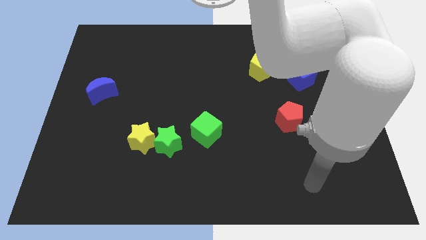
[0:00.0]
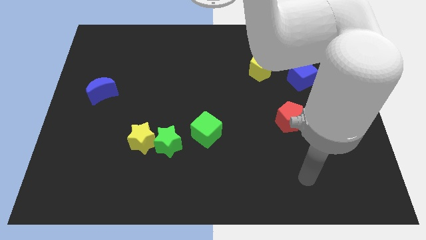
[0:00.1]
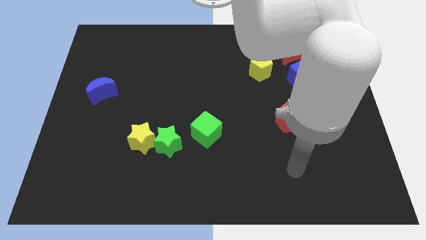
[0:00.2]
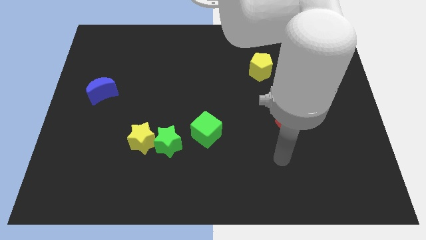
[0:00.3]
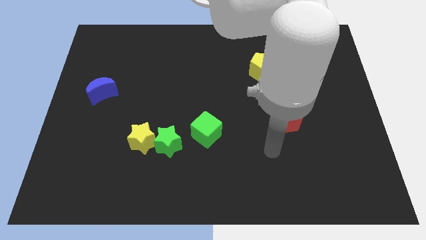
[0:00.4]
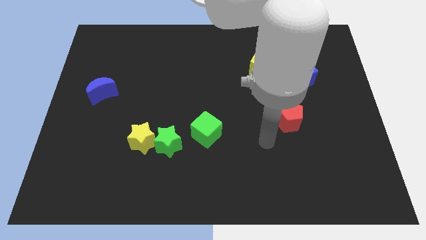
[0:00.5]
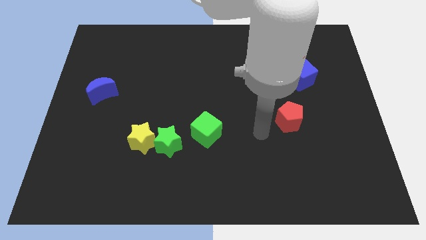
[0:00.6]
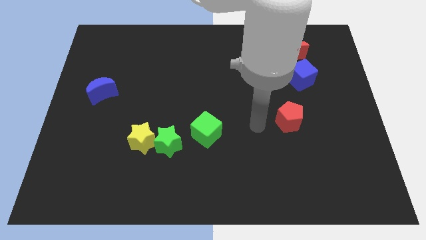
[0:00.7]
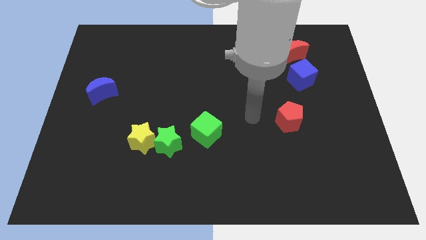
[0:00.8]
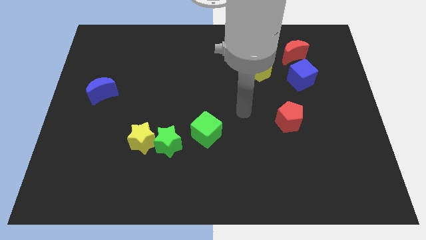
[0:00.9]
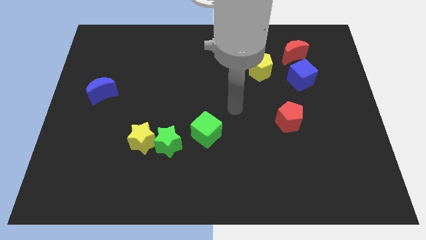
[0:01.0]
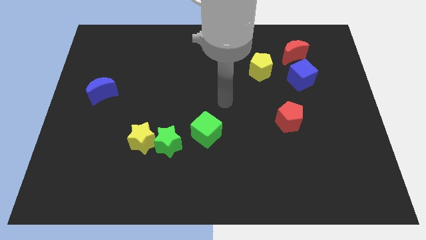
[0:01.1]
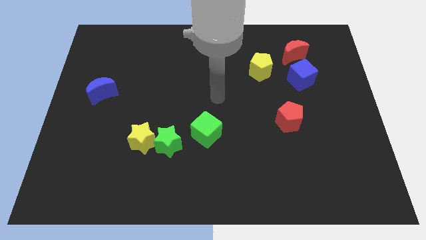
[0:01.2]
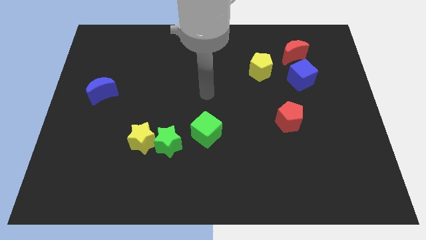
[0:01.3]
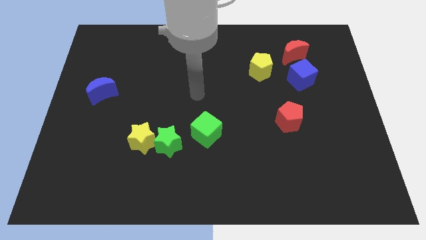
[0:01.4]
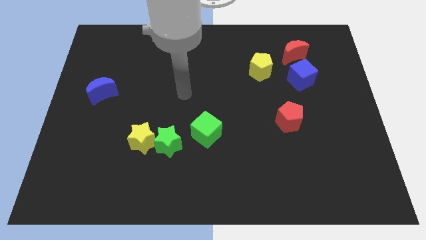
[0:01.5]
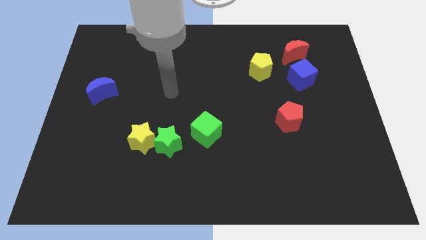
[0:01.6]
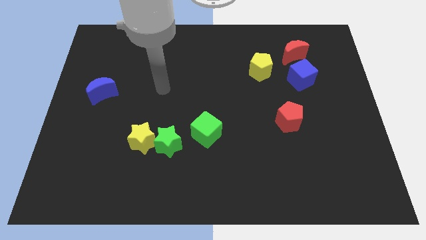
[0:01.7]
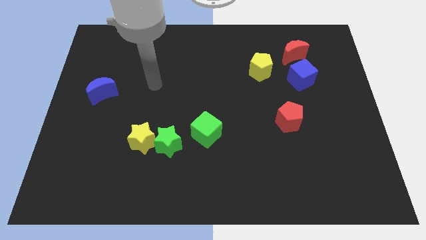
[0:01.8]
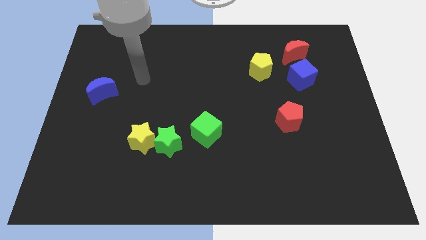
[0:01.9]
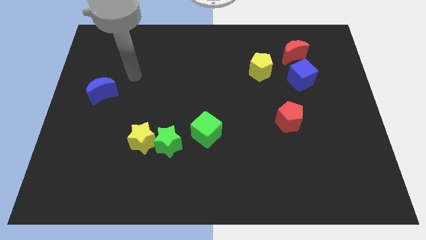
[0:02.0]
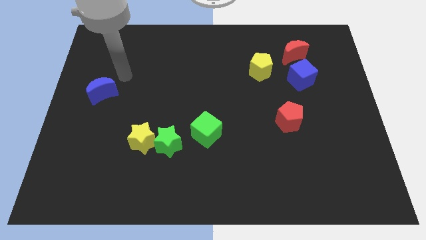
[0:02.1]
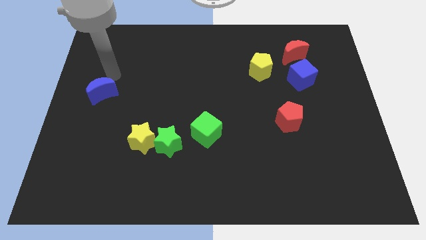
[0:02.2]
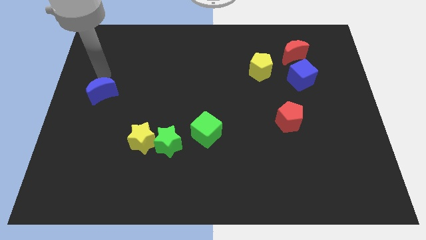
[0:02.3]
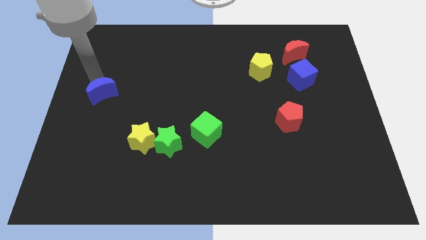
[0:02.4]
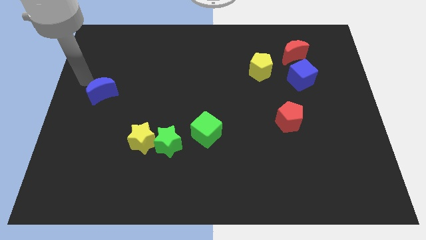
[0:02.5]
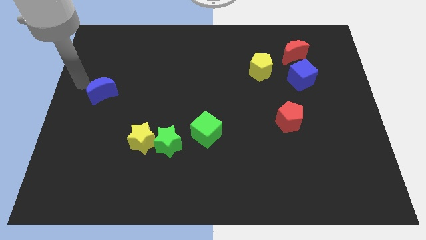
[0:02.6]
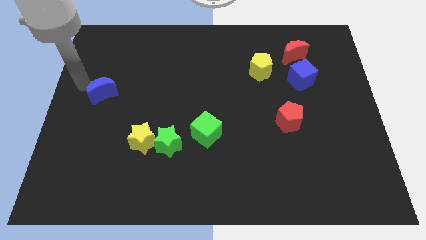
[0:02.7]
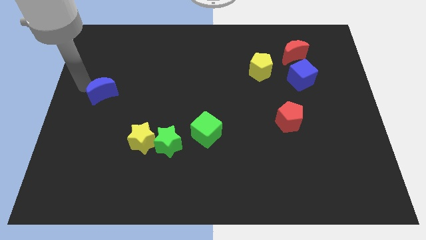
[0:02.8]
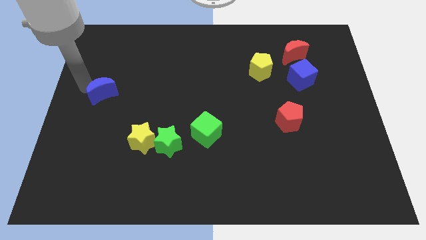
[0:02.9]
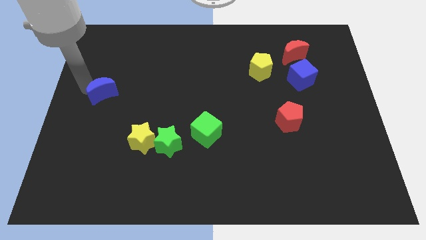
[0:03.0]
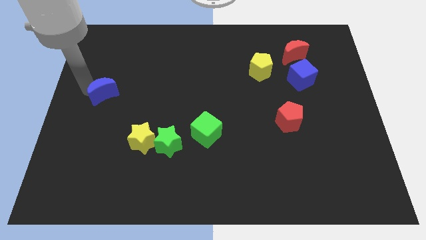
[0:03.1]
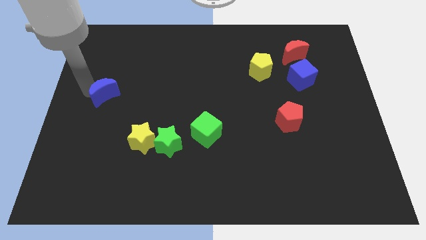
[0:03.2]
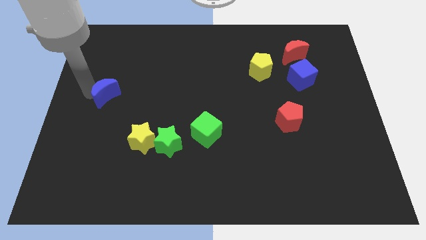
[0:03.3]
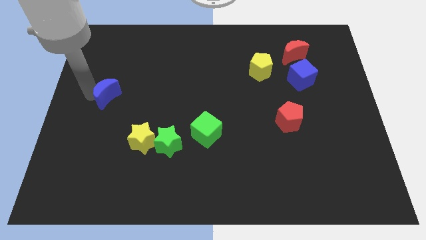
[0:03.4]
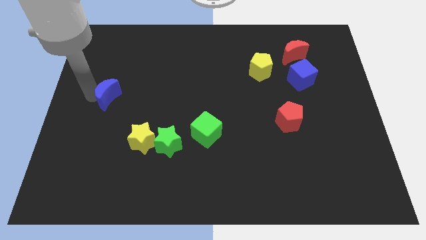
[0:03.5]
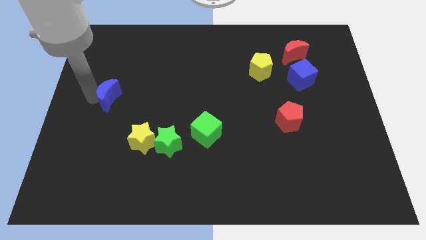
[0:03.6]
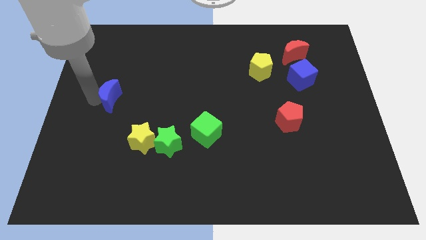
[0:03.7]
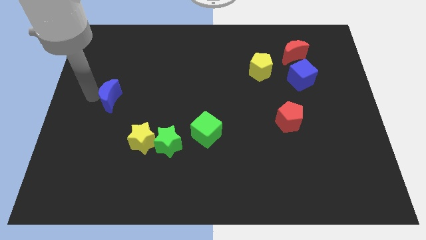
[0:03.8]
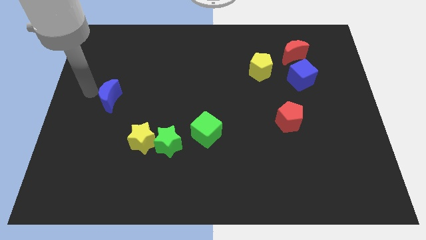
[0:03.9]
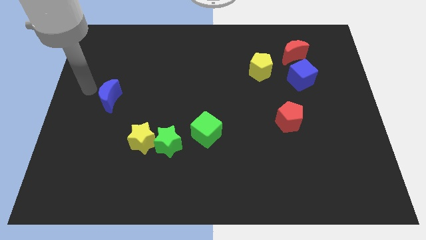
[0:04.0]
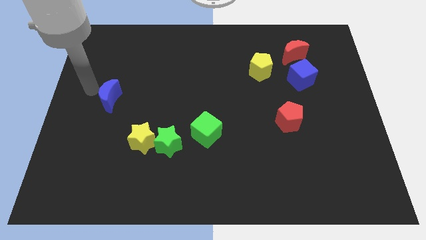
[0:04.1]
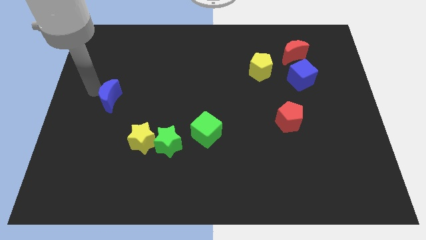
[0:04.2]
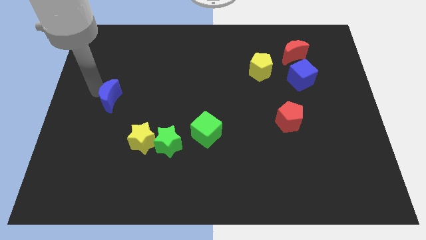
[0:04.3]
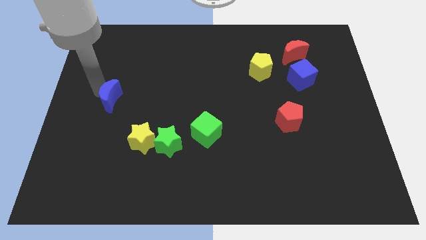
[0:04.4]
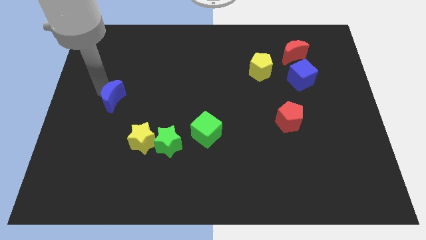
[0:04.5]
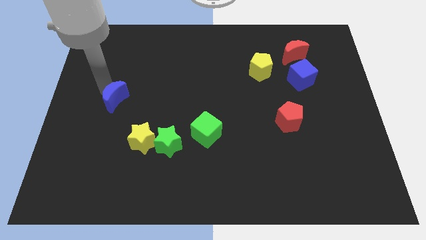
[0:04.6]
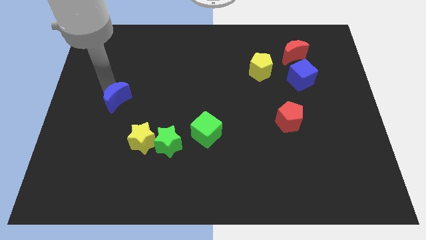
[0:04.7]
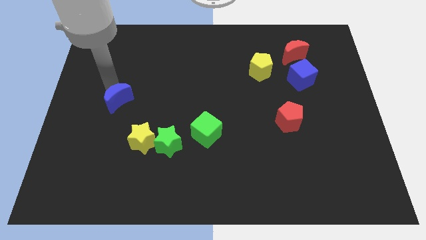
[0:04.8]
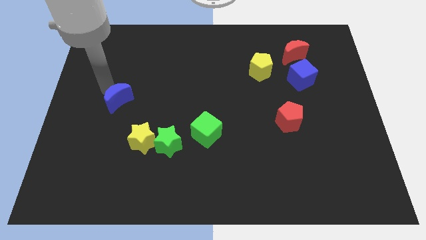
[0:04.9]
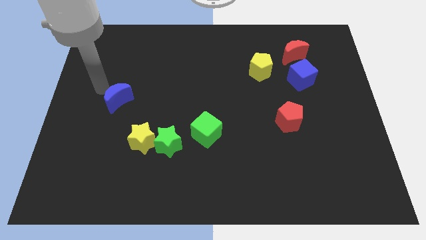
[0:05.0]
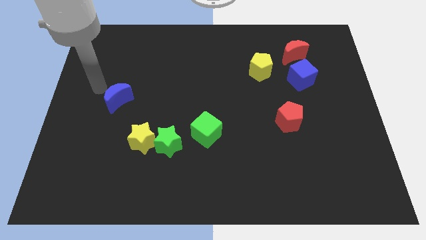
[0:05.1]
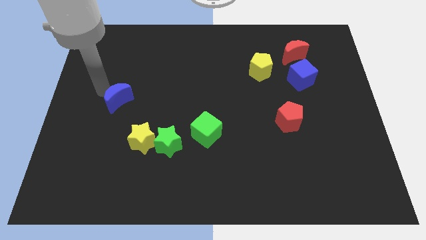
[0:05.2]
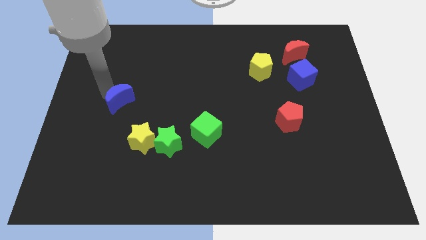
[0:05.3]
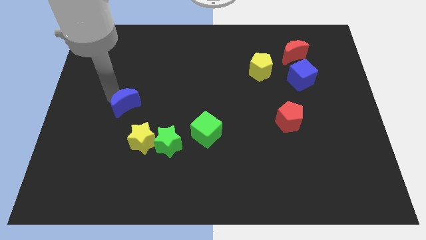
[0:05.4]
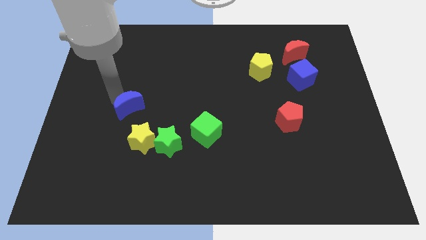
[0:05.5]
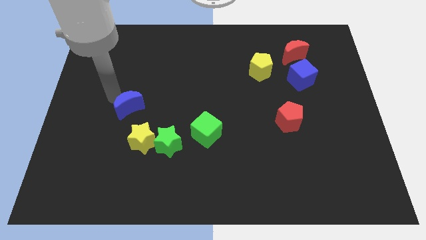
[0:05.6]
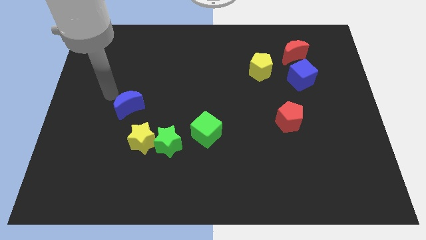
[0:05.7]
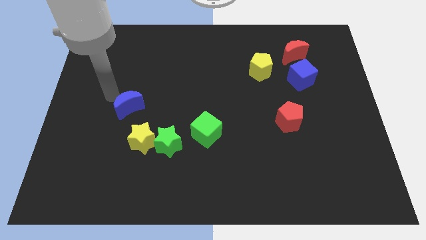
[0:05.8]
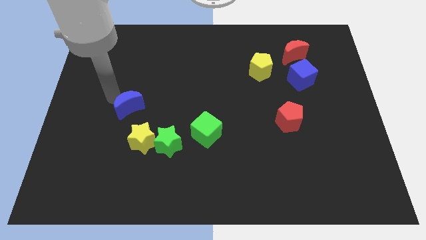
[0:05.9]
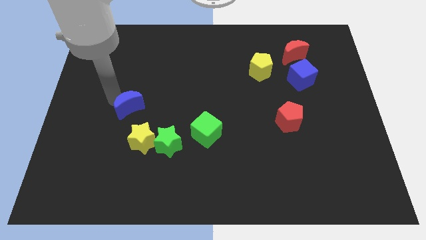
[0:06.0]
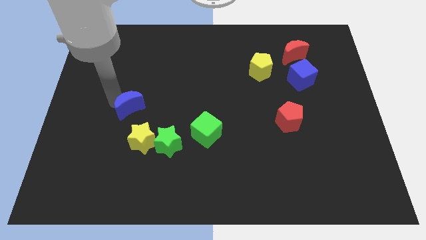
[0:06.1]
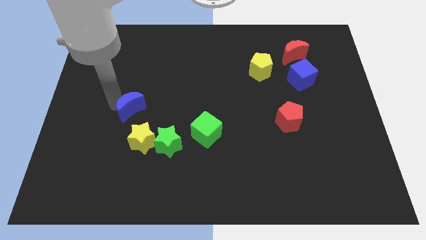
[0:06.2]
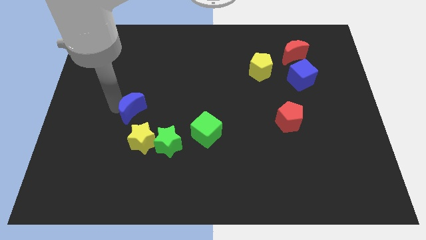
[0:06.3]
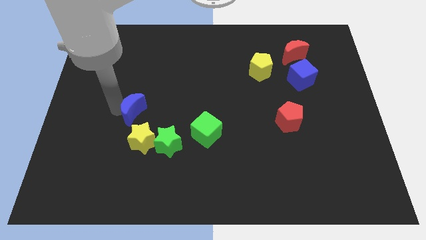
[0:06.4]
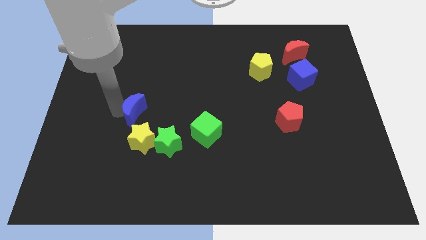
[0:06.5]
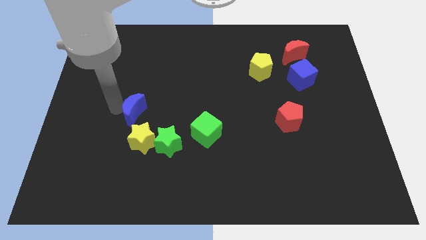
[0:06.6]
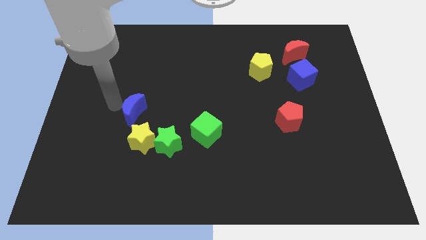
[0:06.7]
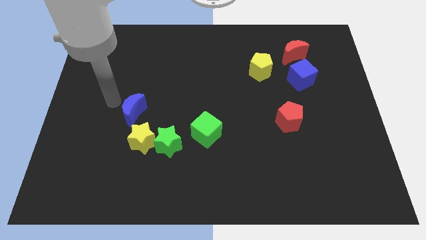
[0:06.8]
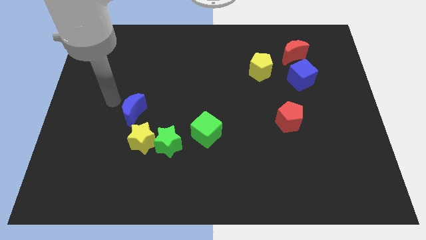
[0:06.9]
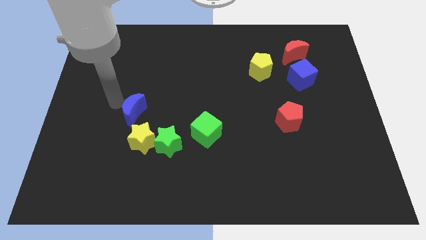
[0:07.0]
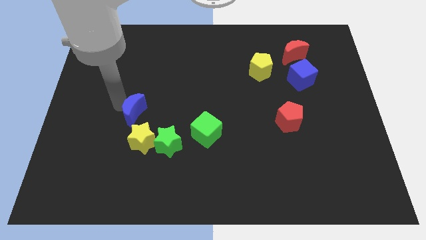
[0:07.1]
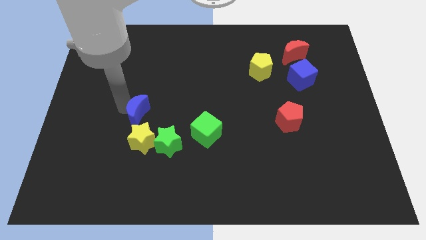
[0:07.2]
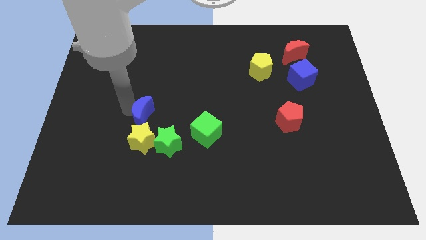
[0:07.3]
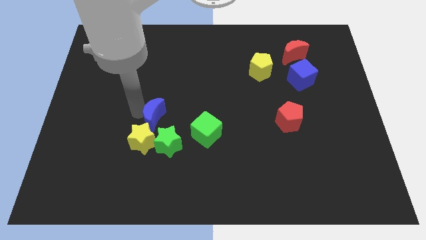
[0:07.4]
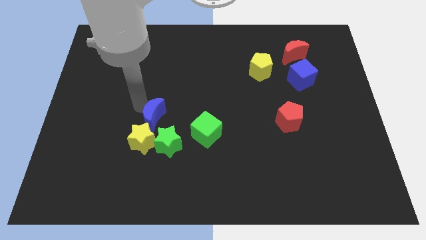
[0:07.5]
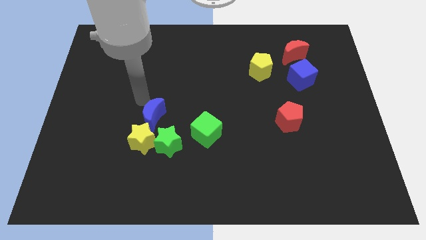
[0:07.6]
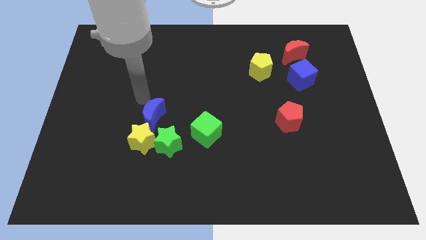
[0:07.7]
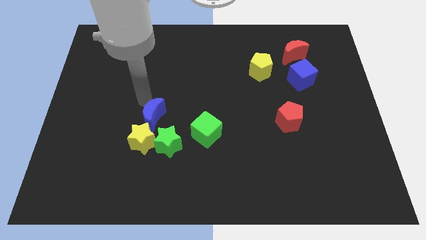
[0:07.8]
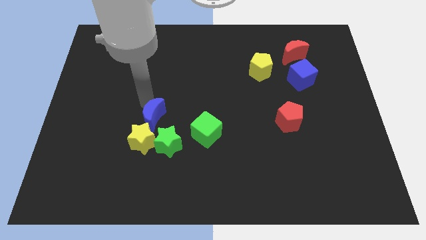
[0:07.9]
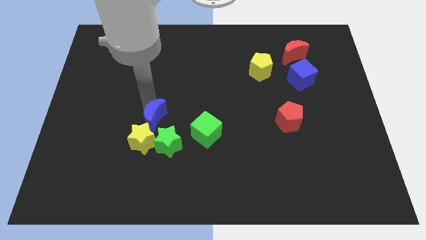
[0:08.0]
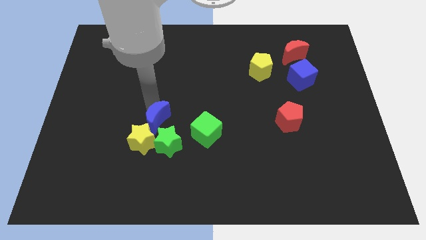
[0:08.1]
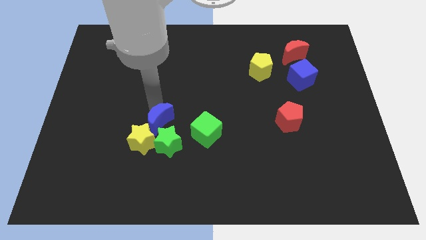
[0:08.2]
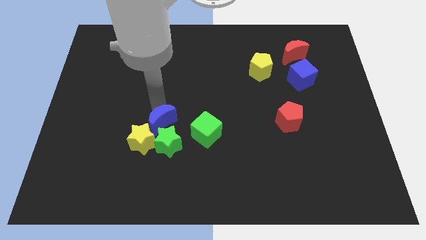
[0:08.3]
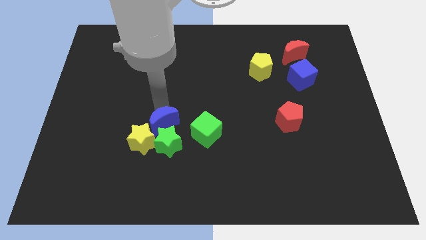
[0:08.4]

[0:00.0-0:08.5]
slide the blue moon next to the green star
